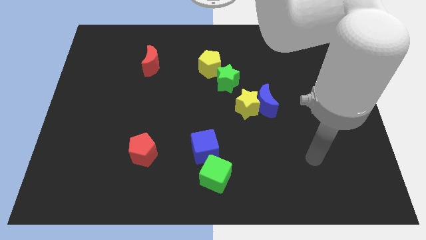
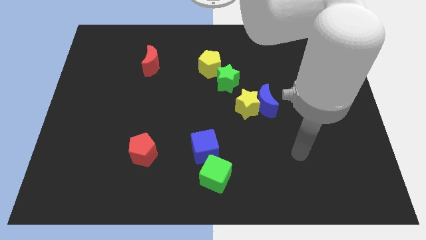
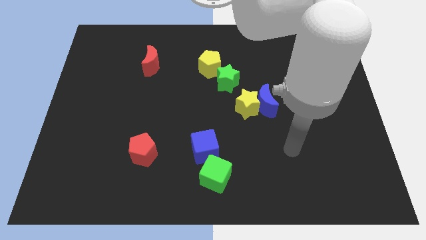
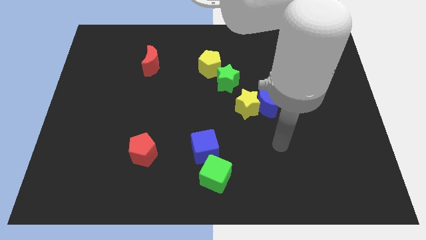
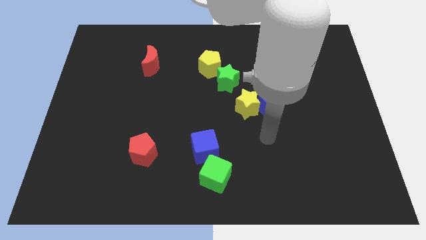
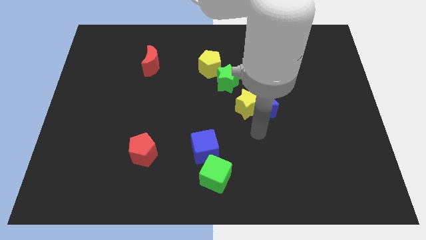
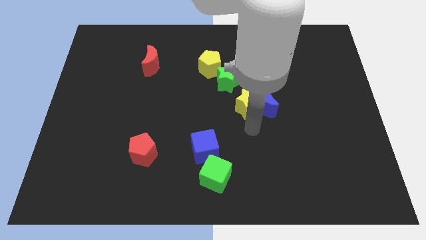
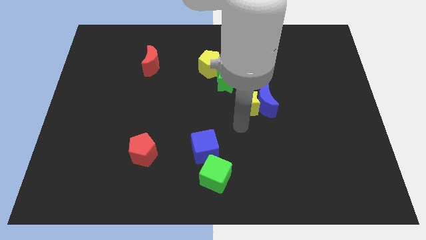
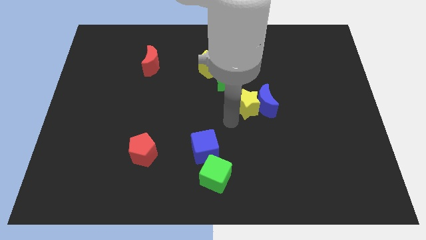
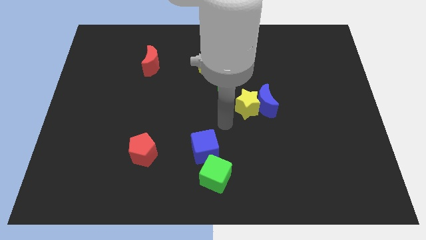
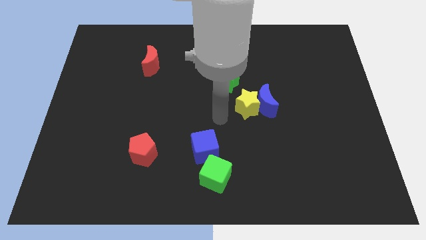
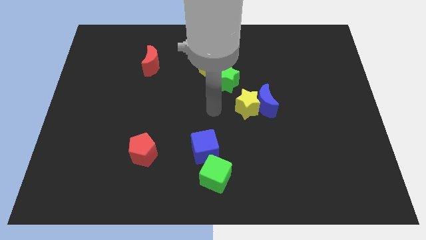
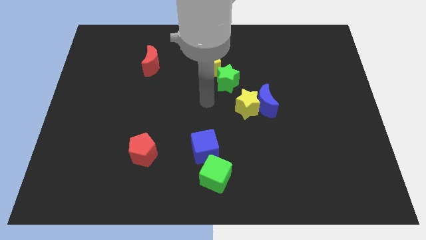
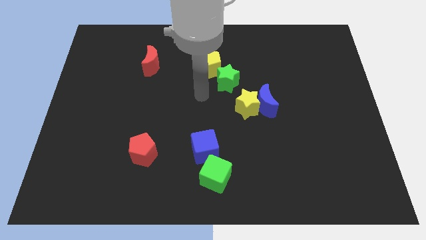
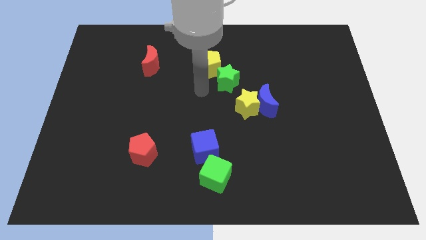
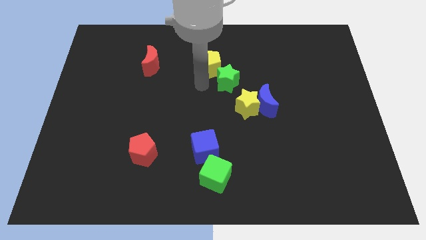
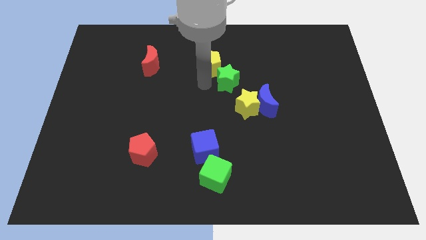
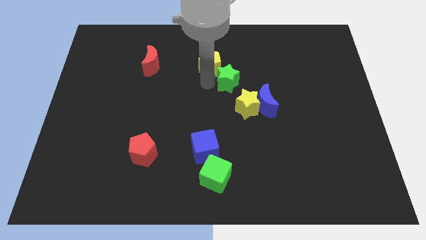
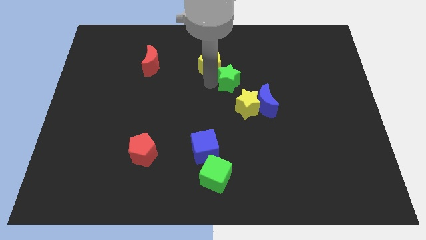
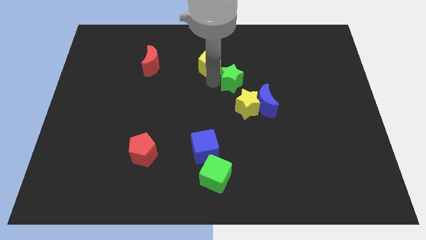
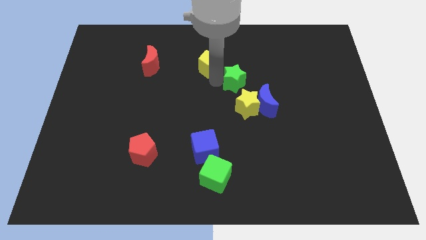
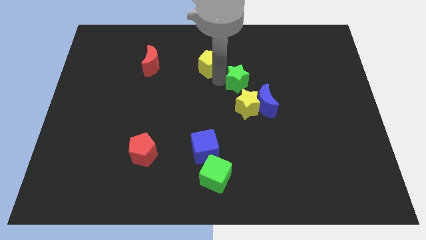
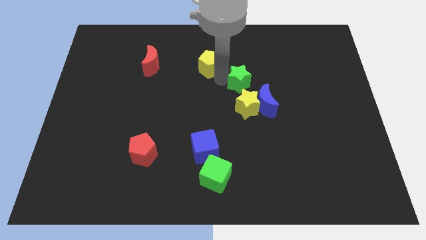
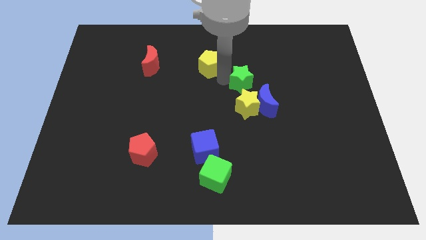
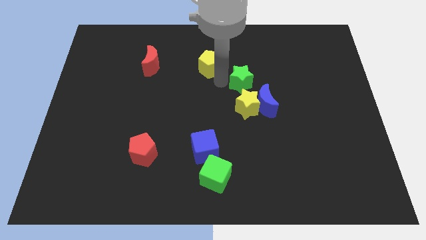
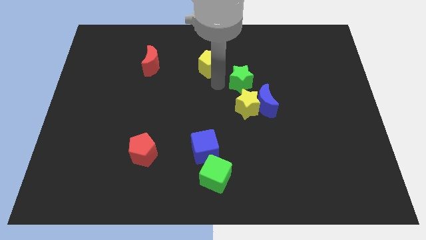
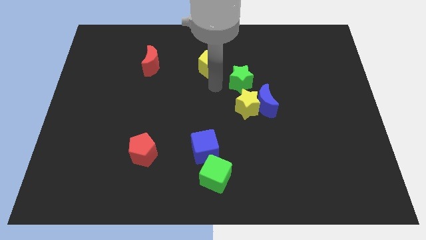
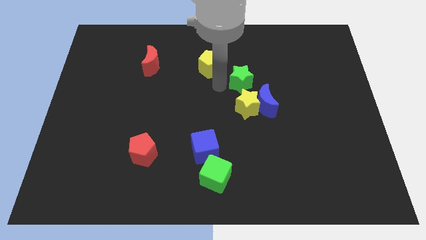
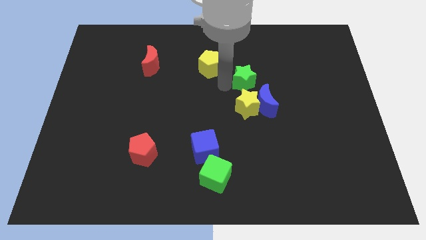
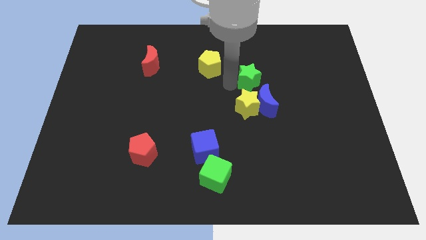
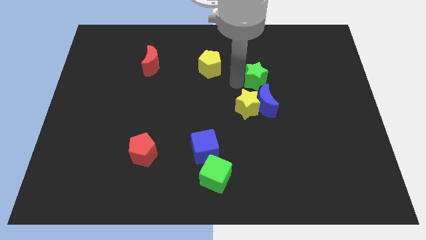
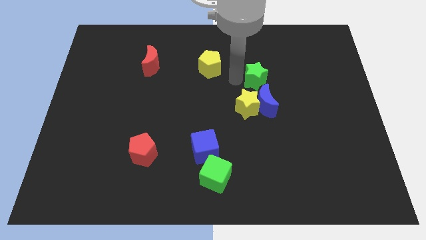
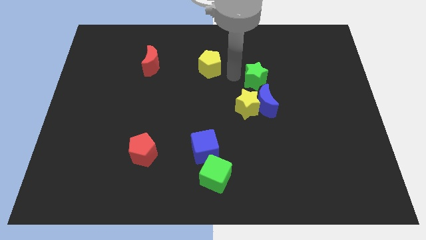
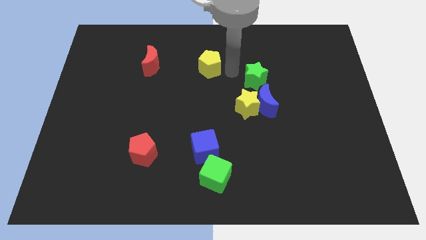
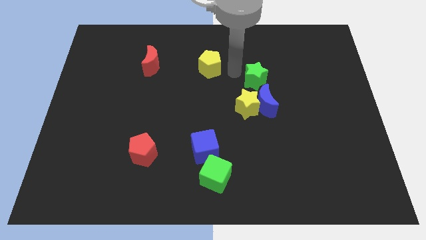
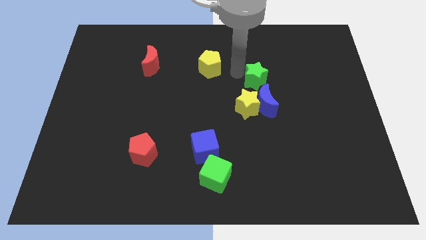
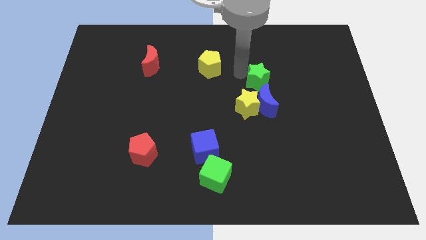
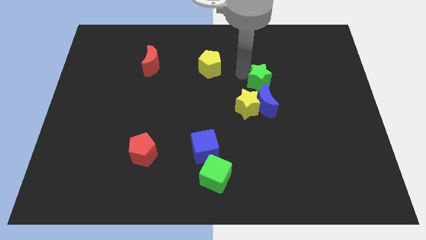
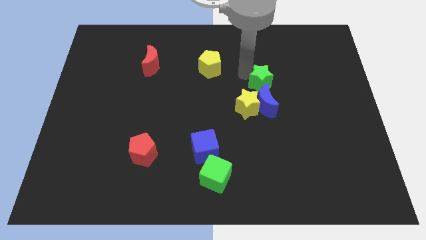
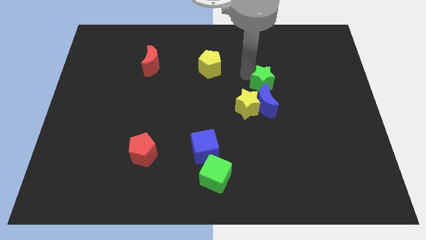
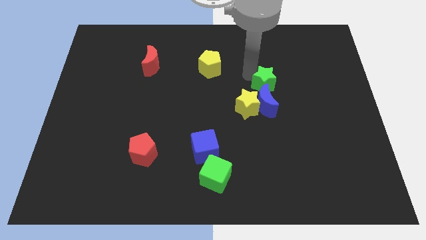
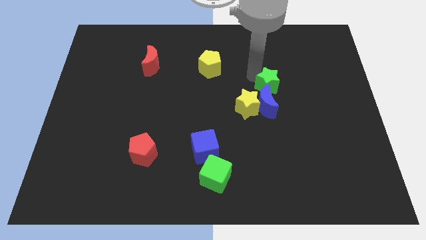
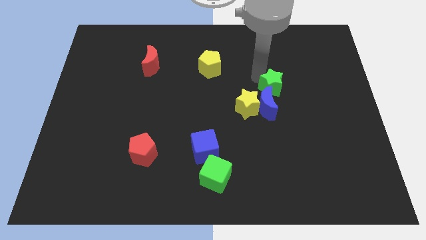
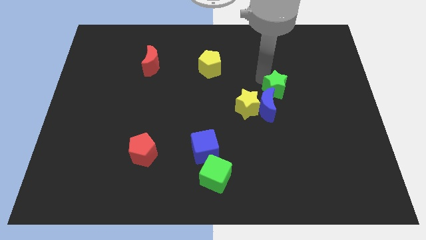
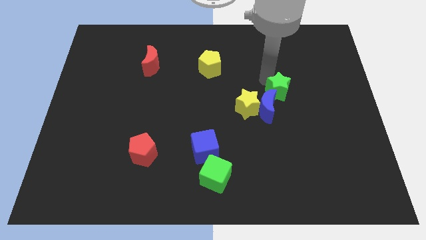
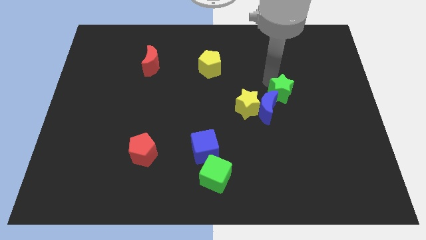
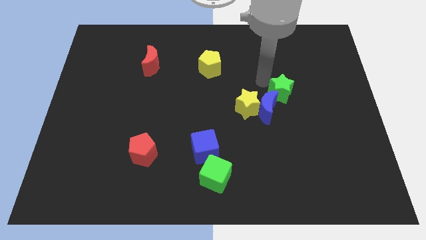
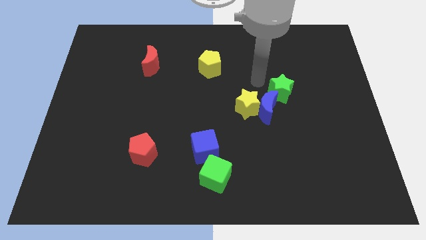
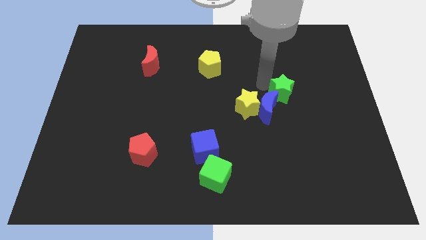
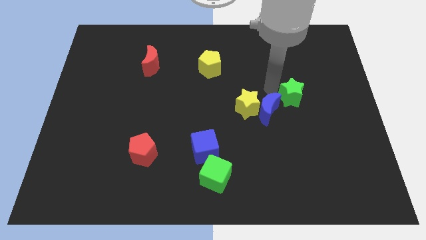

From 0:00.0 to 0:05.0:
slide the green star to the right of the blue moon

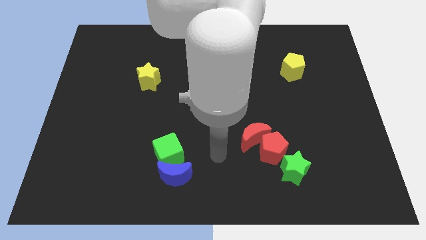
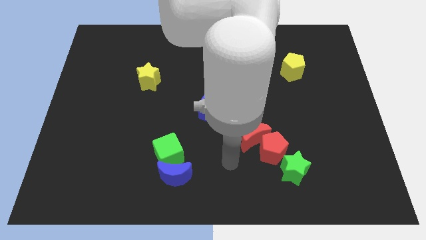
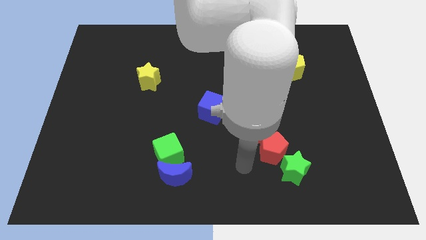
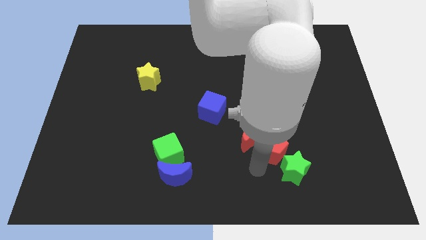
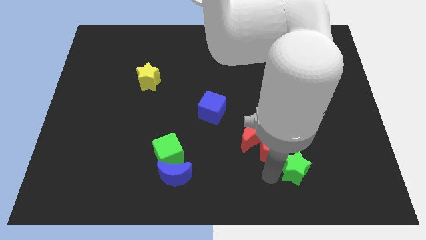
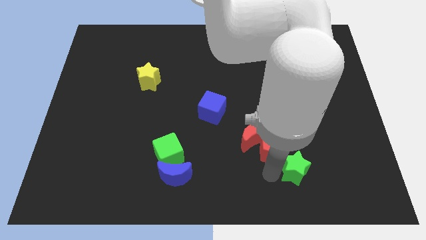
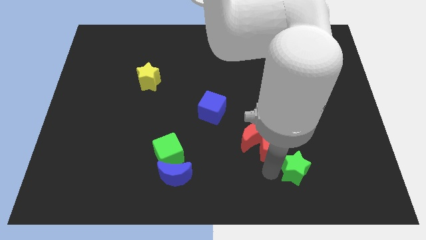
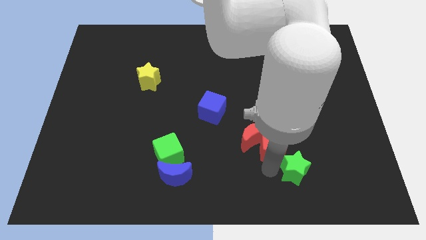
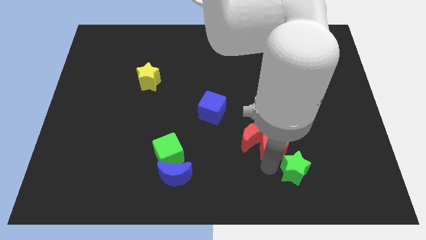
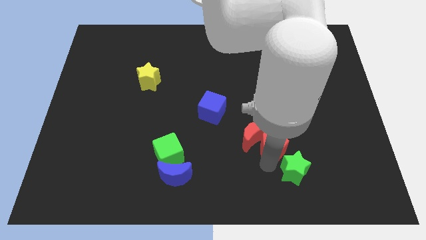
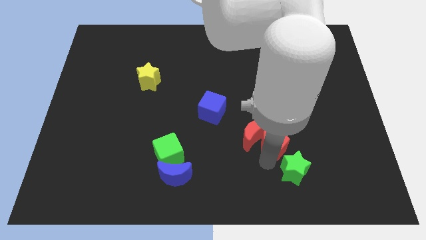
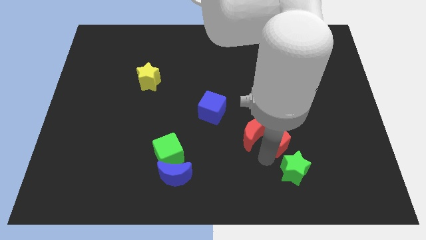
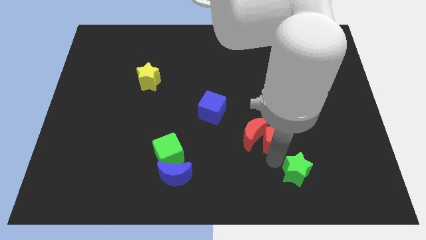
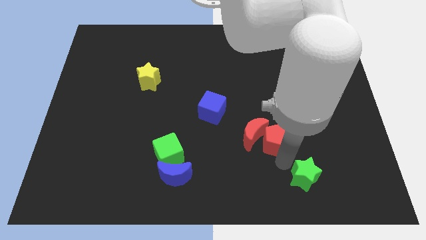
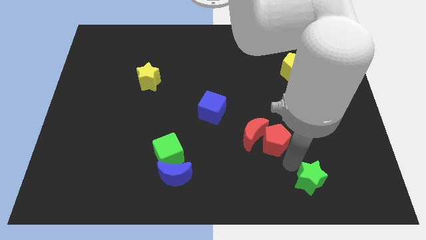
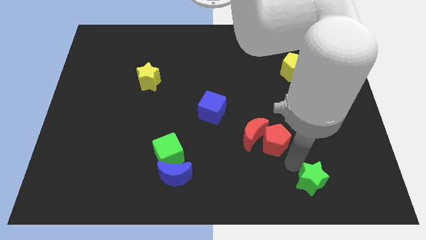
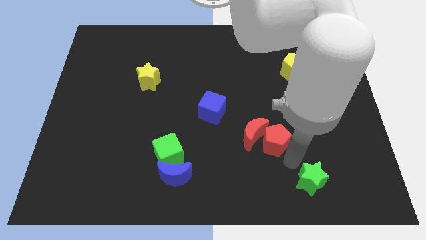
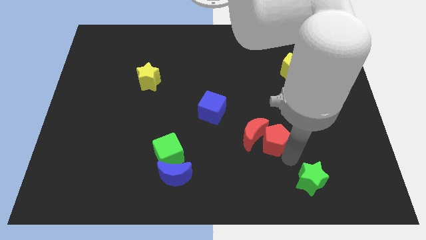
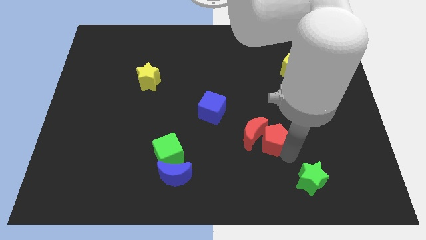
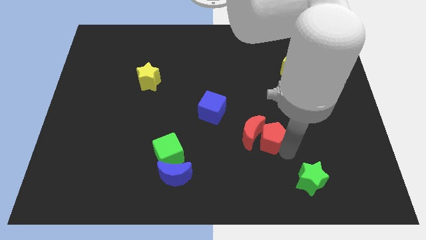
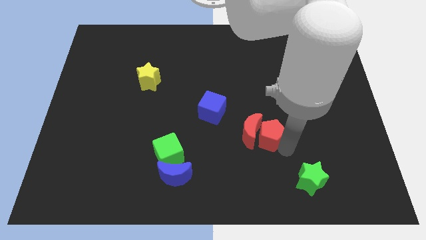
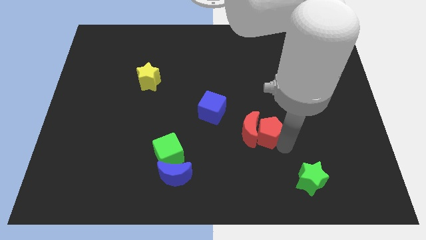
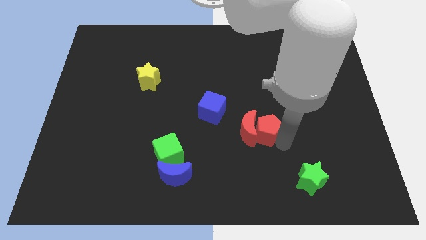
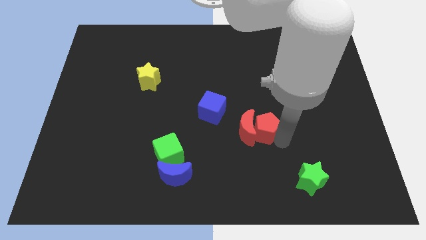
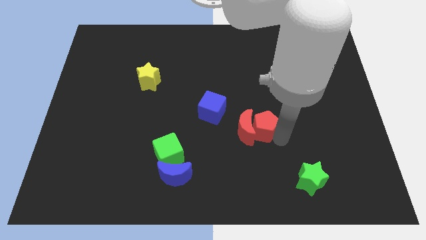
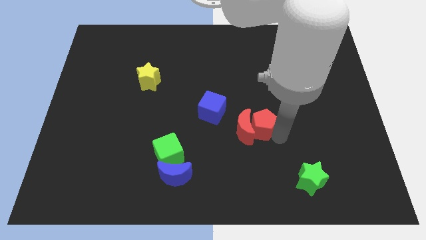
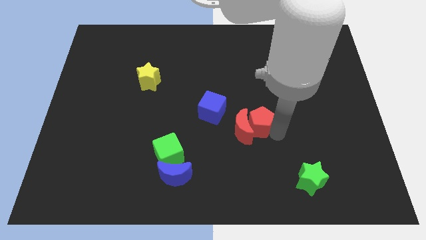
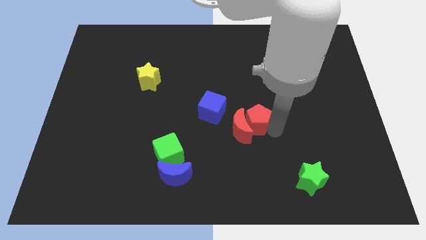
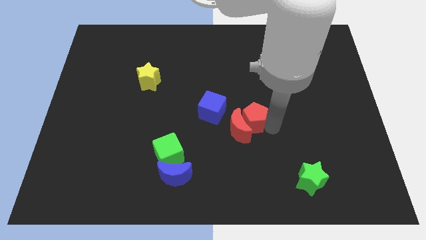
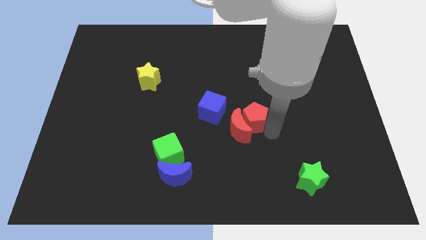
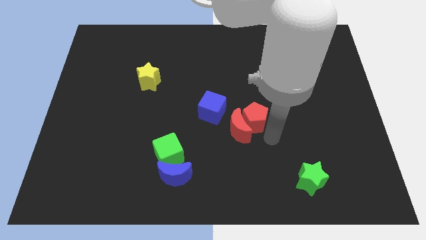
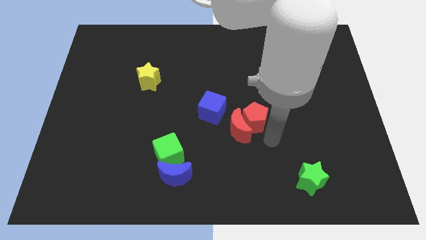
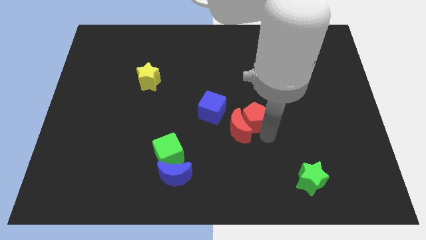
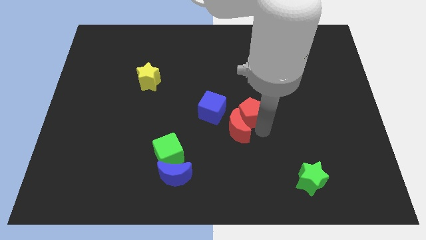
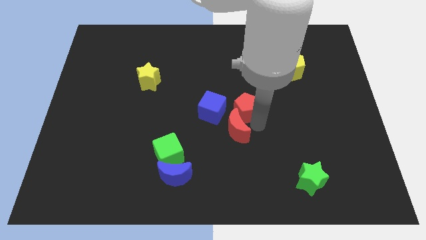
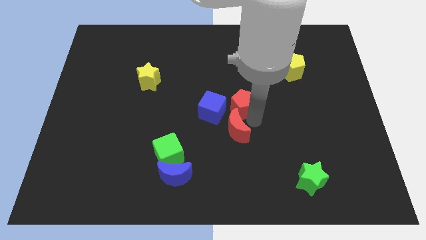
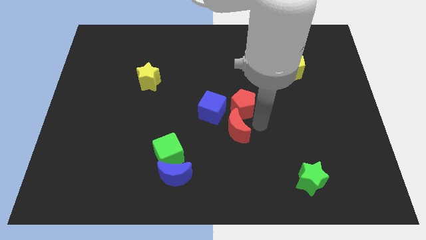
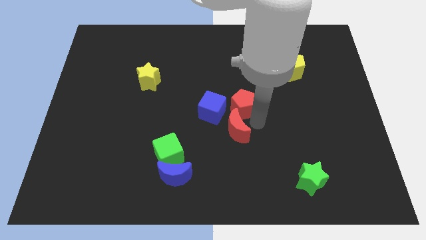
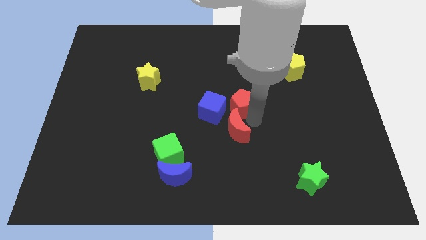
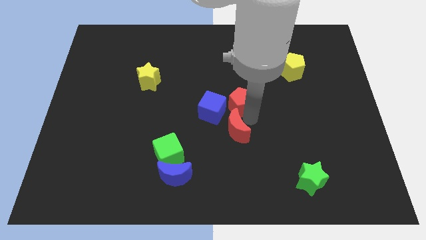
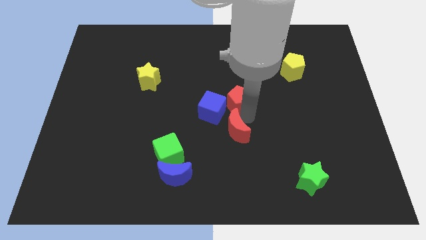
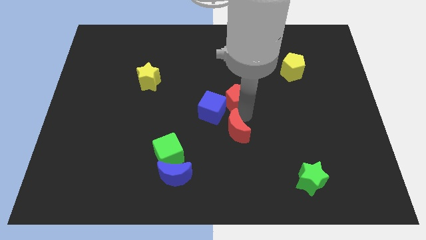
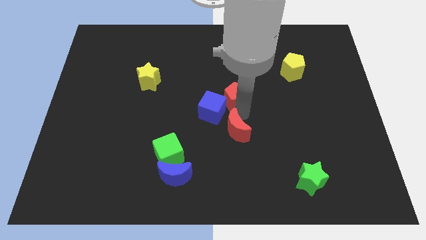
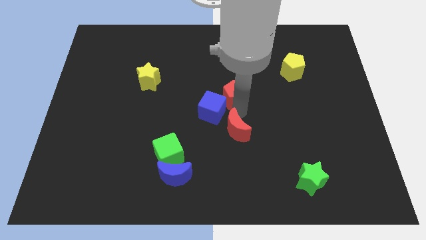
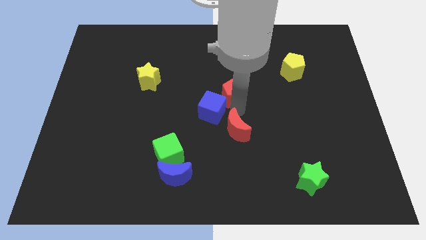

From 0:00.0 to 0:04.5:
push the red pentagon above the blue cube
